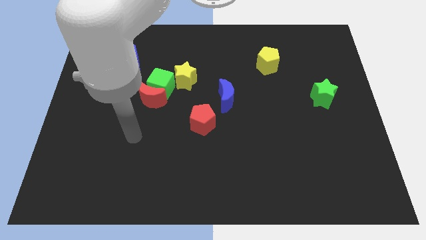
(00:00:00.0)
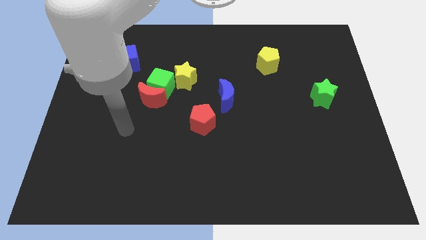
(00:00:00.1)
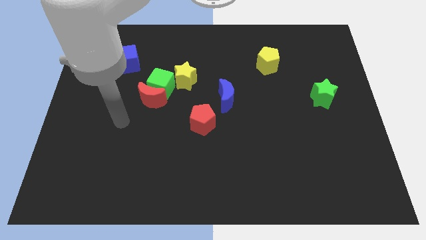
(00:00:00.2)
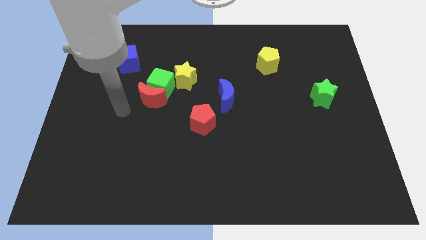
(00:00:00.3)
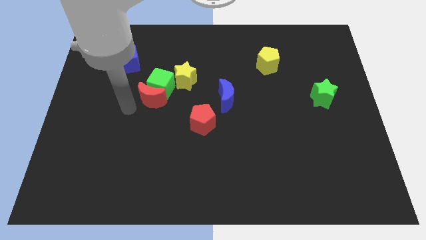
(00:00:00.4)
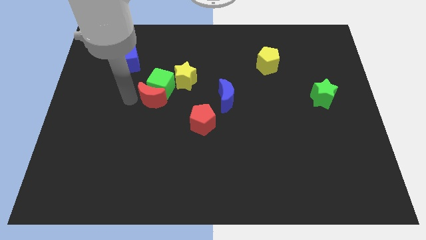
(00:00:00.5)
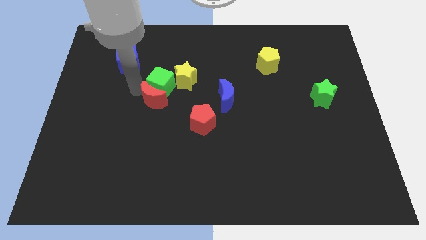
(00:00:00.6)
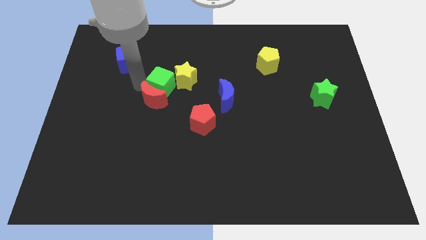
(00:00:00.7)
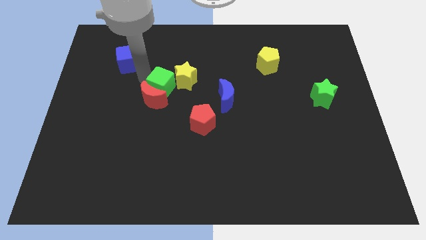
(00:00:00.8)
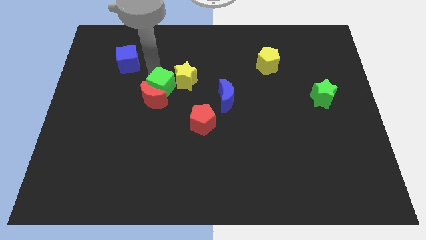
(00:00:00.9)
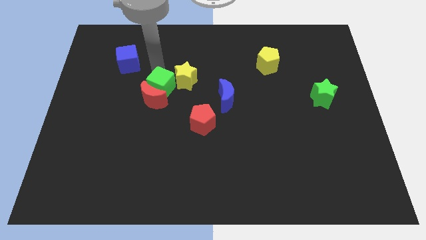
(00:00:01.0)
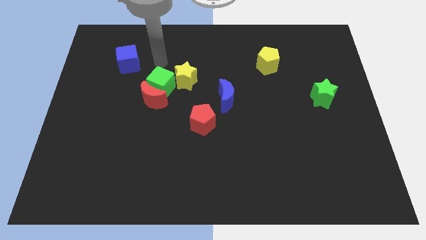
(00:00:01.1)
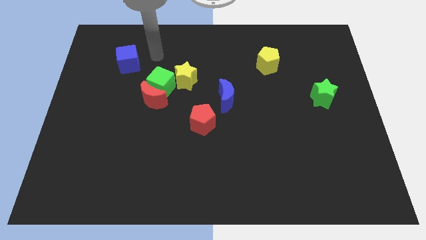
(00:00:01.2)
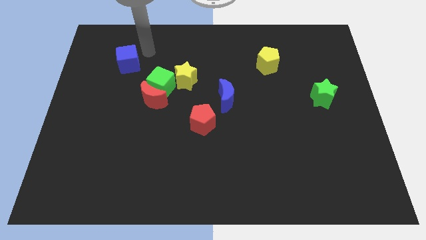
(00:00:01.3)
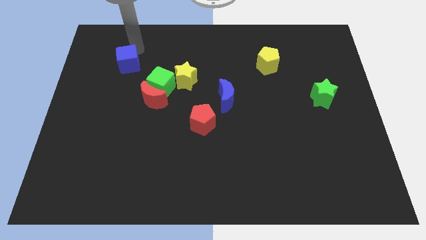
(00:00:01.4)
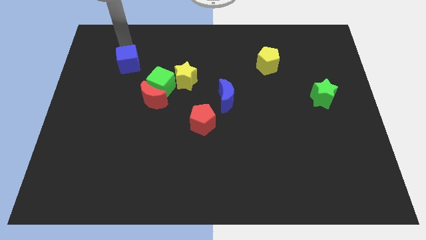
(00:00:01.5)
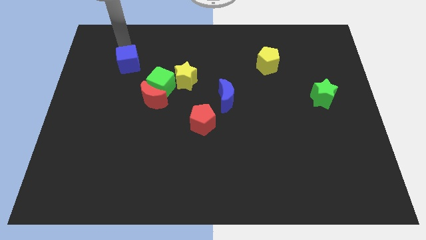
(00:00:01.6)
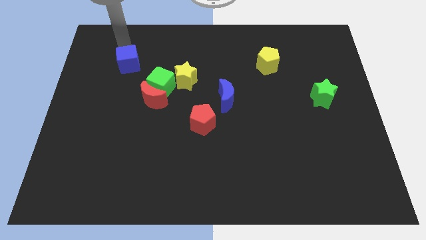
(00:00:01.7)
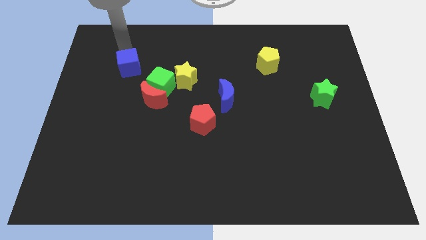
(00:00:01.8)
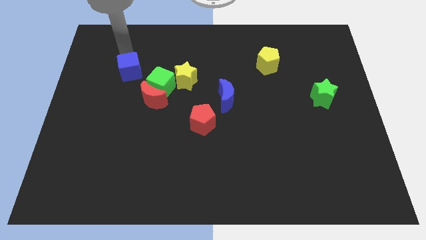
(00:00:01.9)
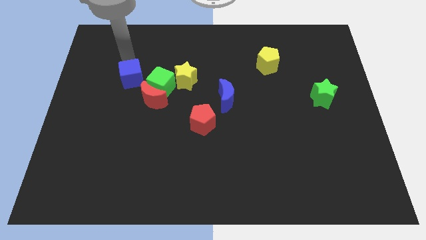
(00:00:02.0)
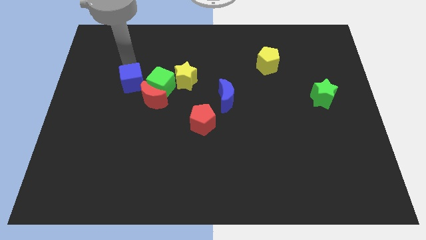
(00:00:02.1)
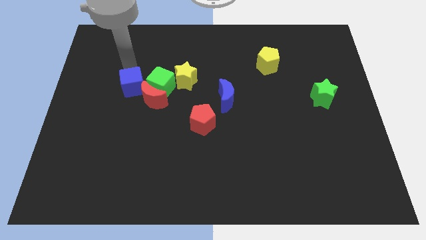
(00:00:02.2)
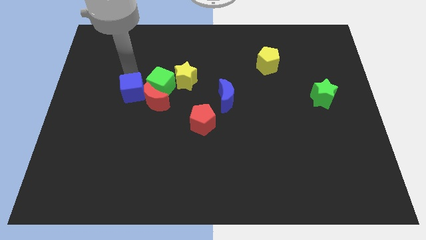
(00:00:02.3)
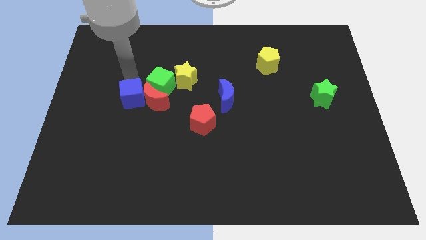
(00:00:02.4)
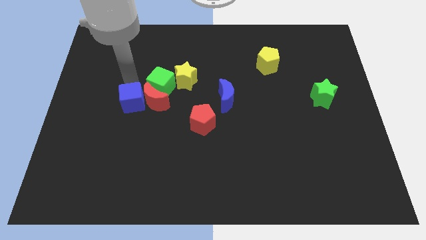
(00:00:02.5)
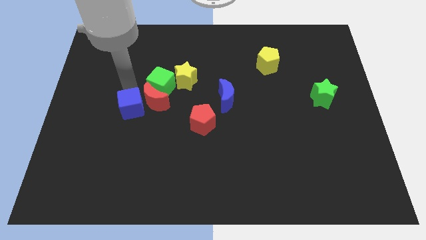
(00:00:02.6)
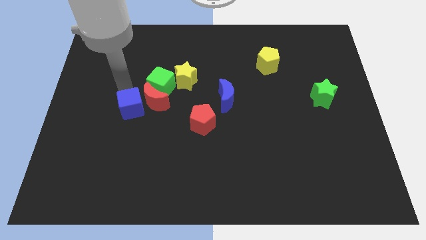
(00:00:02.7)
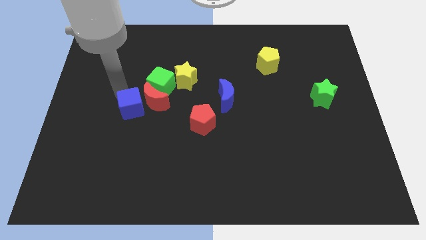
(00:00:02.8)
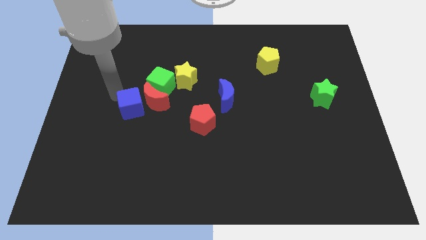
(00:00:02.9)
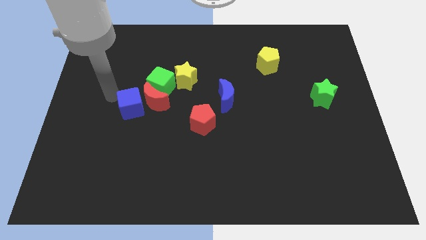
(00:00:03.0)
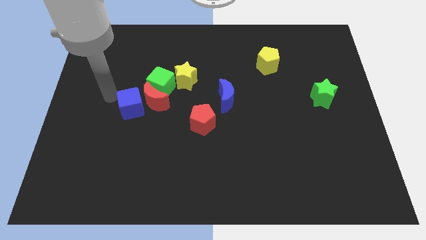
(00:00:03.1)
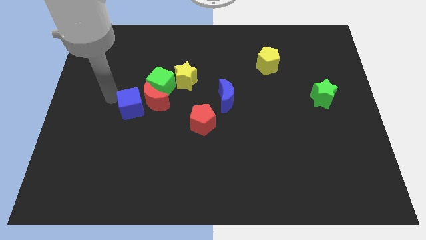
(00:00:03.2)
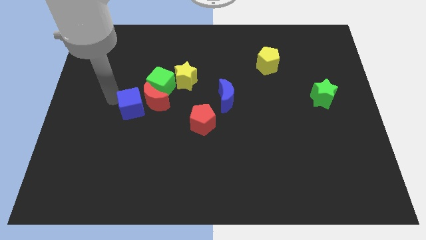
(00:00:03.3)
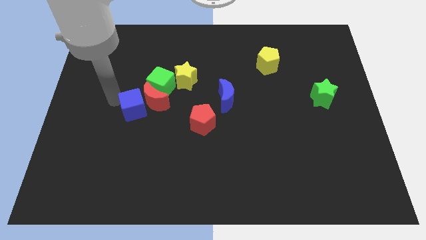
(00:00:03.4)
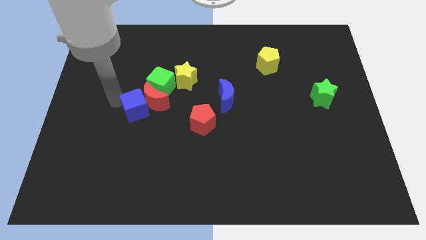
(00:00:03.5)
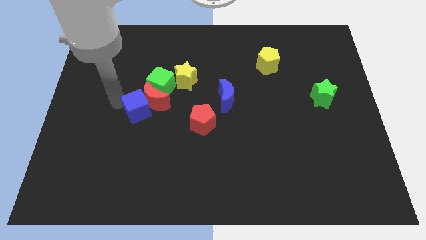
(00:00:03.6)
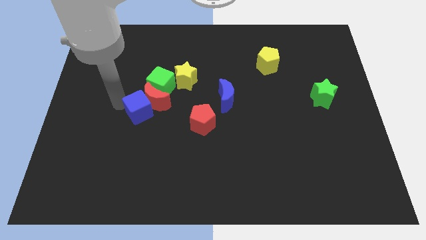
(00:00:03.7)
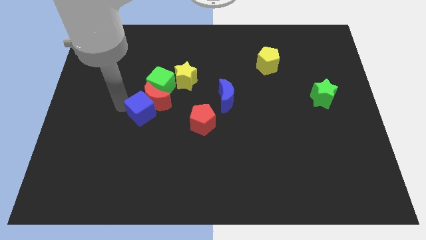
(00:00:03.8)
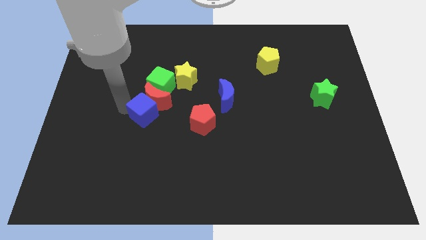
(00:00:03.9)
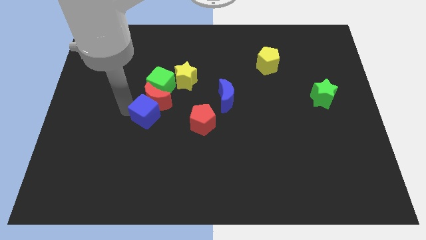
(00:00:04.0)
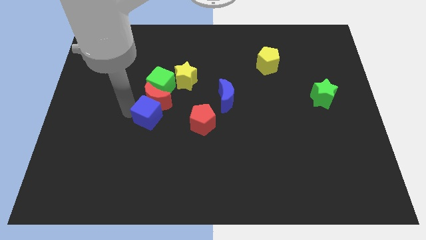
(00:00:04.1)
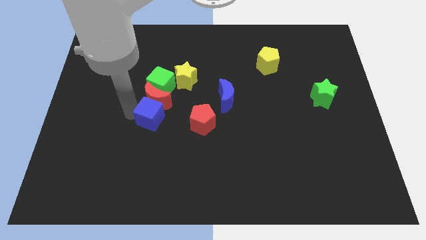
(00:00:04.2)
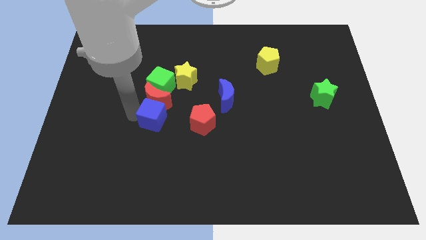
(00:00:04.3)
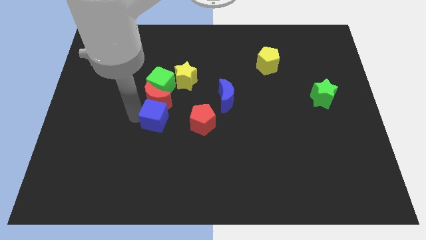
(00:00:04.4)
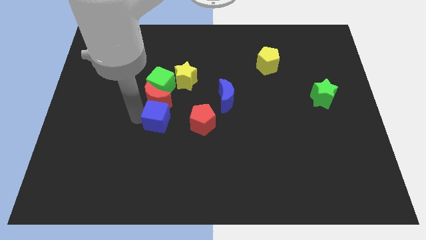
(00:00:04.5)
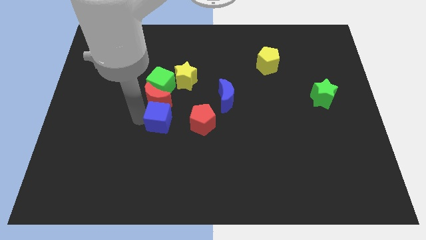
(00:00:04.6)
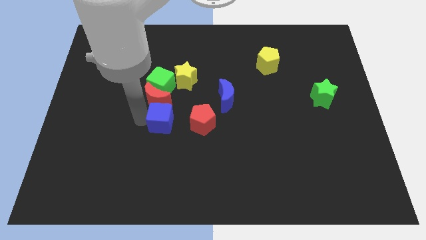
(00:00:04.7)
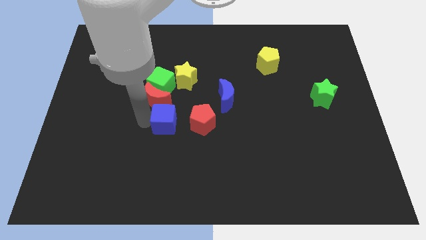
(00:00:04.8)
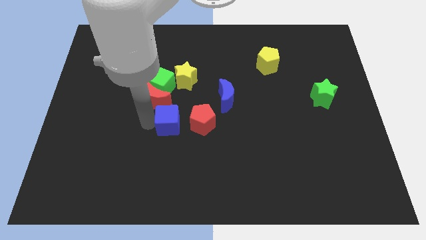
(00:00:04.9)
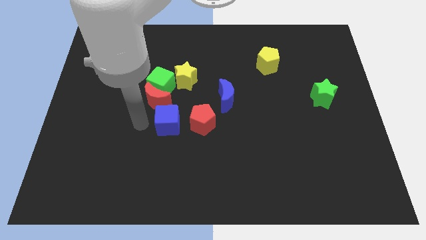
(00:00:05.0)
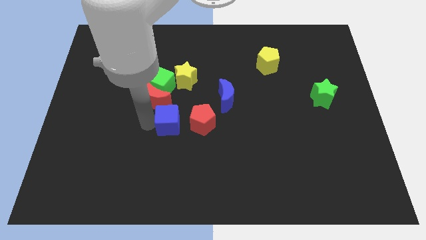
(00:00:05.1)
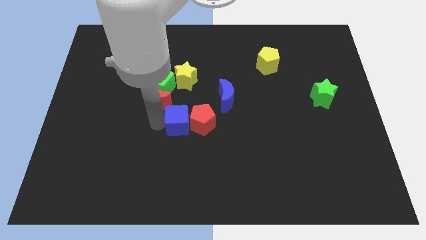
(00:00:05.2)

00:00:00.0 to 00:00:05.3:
move the blue cube to the red pentagon

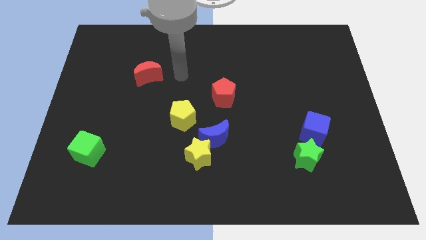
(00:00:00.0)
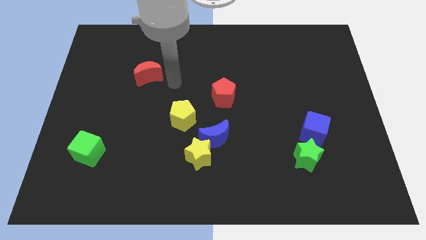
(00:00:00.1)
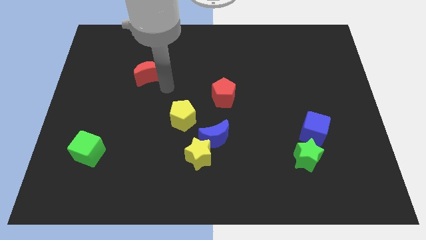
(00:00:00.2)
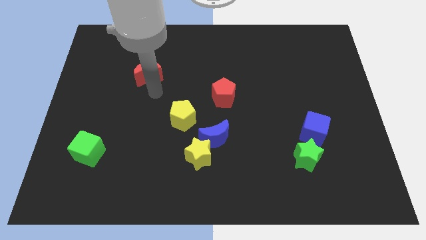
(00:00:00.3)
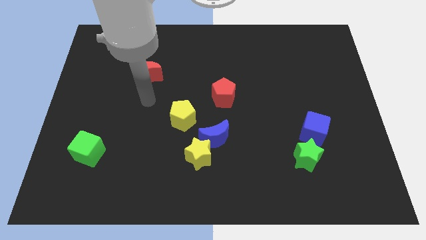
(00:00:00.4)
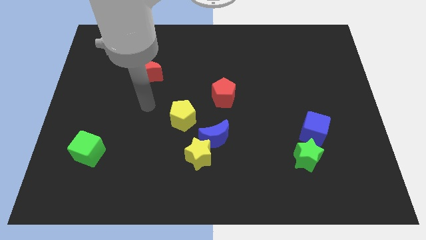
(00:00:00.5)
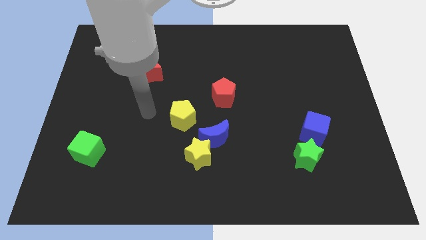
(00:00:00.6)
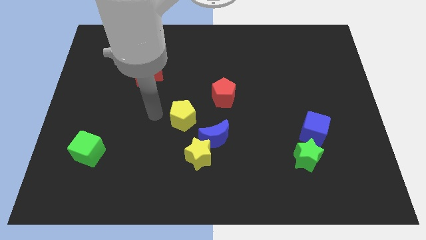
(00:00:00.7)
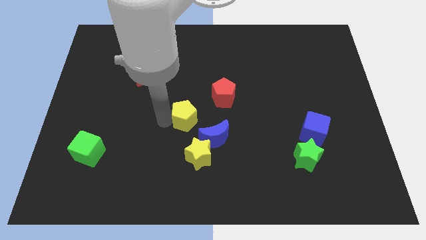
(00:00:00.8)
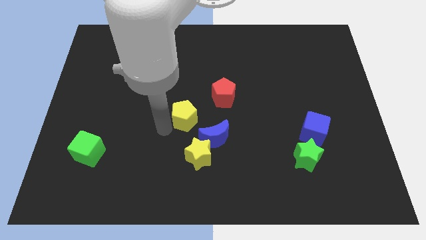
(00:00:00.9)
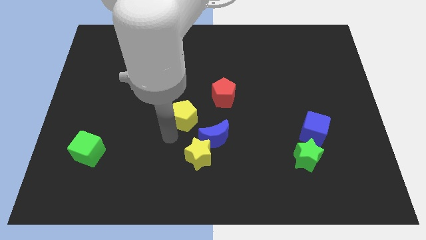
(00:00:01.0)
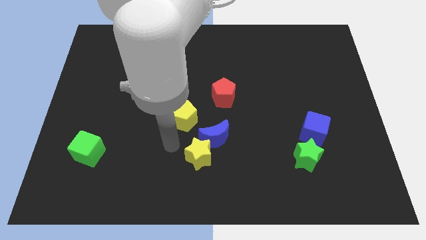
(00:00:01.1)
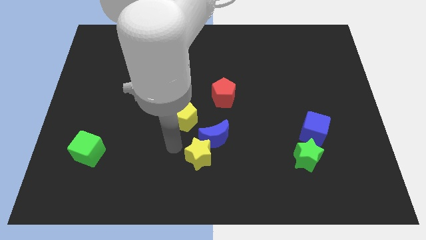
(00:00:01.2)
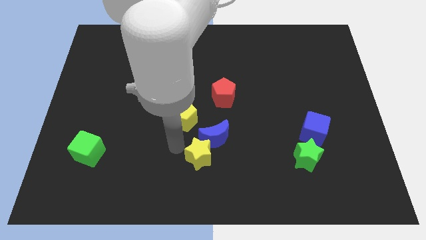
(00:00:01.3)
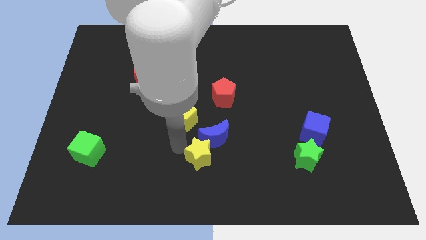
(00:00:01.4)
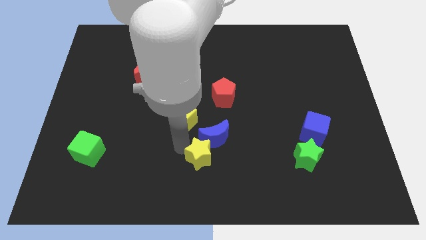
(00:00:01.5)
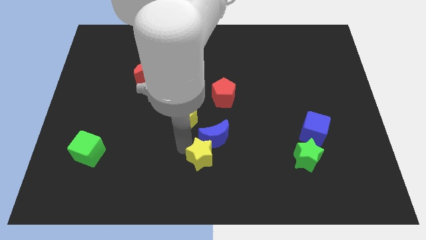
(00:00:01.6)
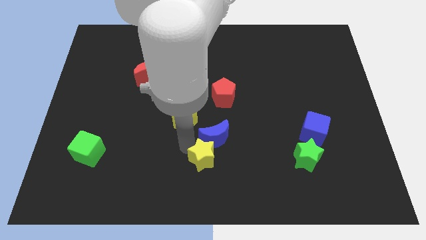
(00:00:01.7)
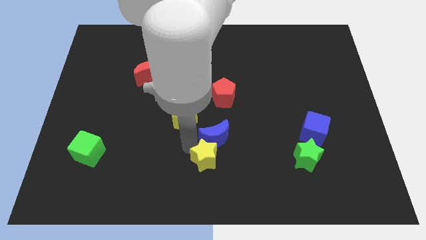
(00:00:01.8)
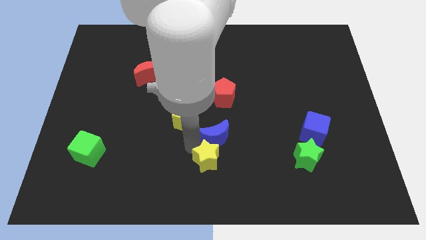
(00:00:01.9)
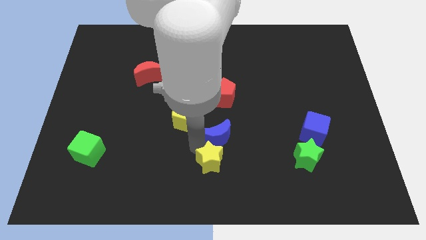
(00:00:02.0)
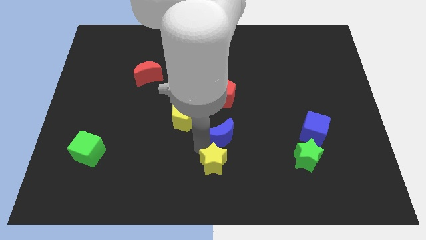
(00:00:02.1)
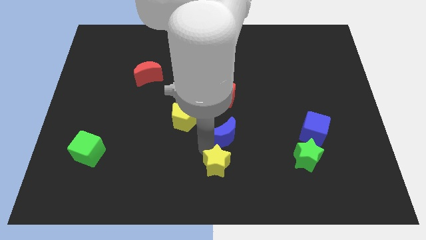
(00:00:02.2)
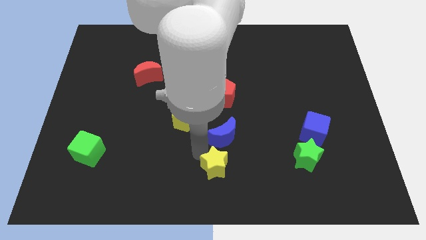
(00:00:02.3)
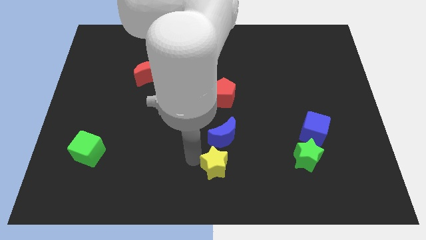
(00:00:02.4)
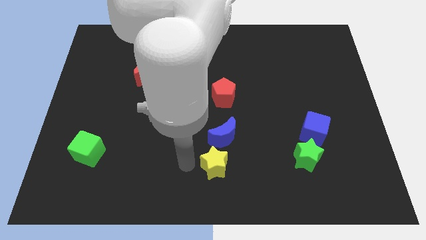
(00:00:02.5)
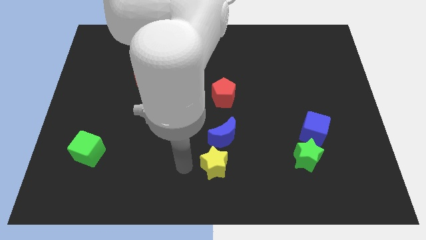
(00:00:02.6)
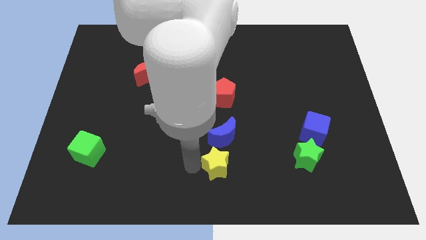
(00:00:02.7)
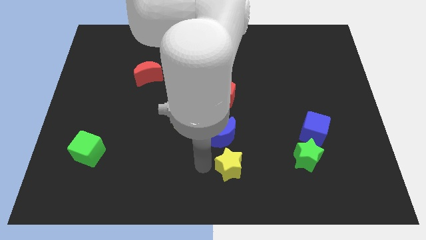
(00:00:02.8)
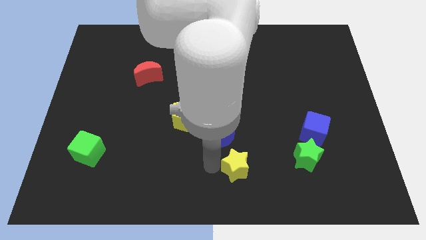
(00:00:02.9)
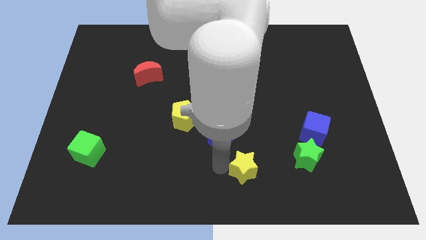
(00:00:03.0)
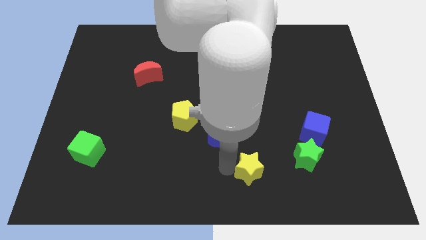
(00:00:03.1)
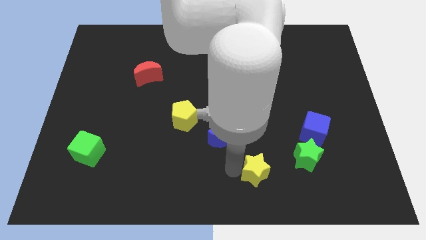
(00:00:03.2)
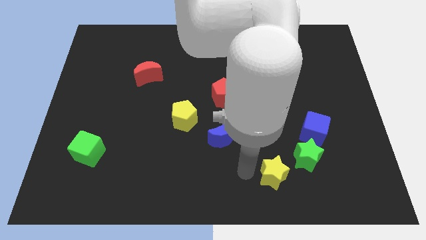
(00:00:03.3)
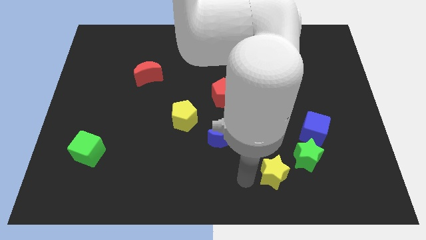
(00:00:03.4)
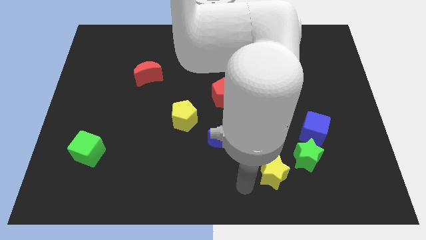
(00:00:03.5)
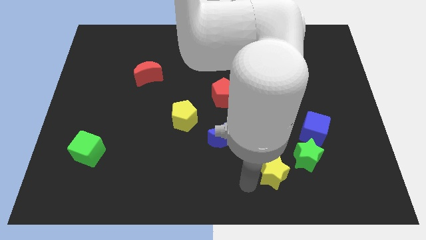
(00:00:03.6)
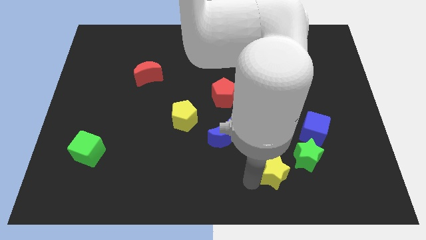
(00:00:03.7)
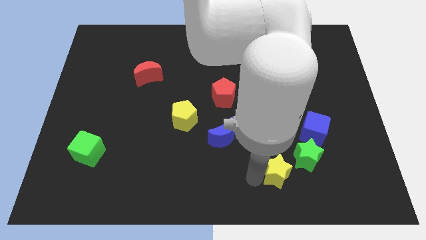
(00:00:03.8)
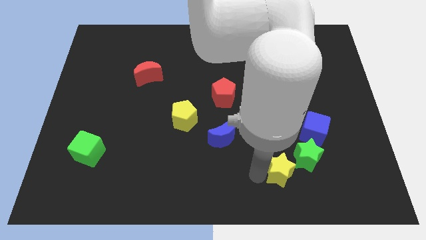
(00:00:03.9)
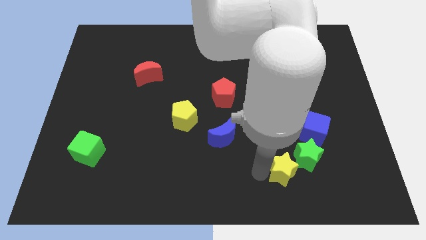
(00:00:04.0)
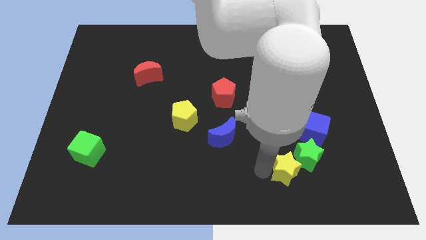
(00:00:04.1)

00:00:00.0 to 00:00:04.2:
move the yellow star next to the green star
